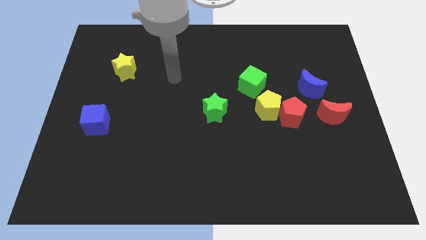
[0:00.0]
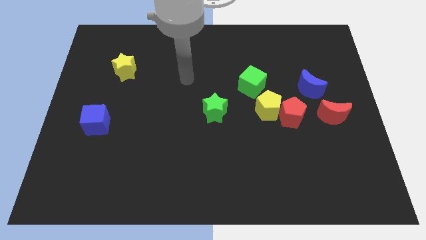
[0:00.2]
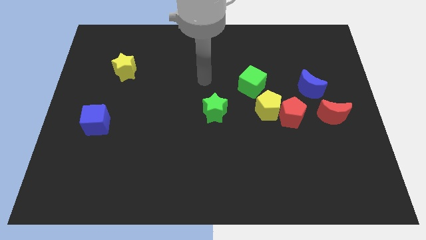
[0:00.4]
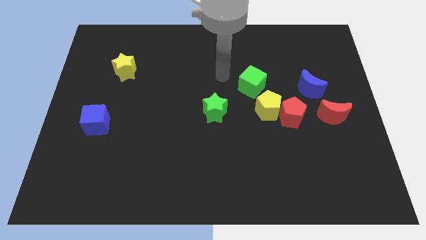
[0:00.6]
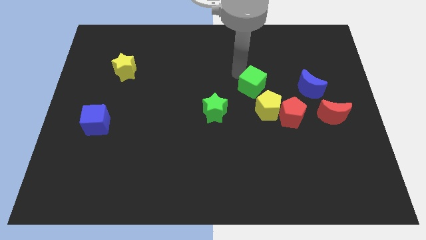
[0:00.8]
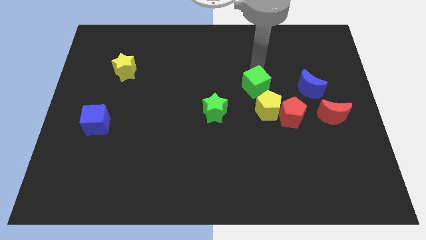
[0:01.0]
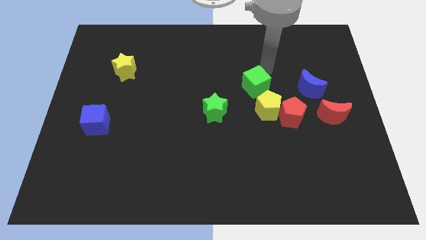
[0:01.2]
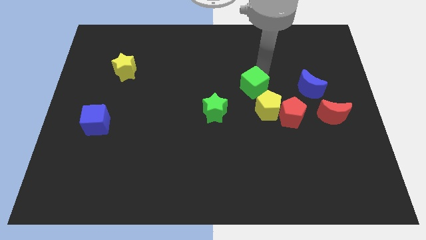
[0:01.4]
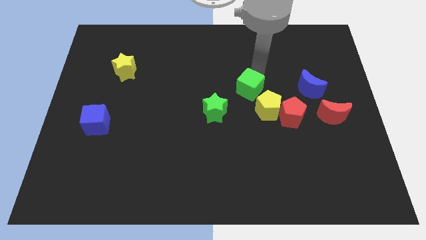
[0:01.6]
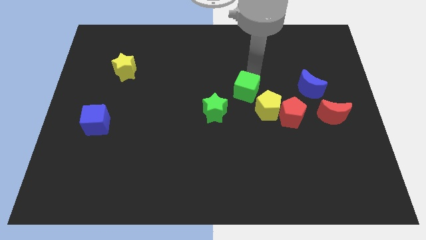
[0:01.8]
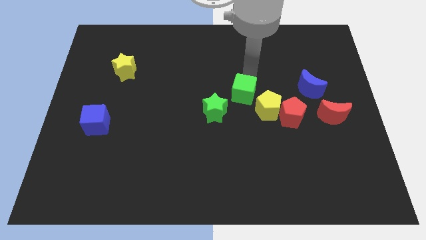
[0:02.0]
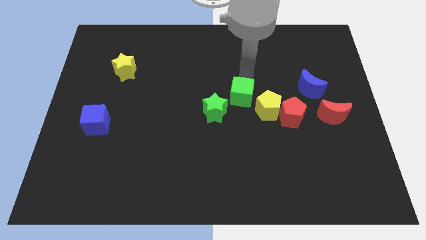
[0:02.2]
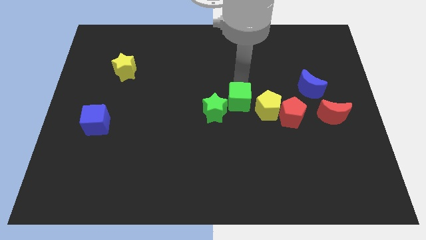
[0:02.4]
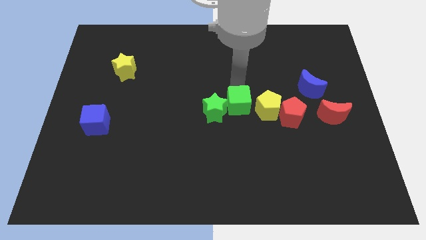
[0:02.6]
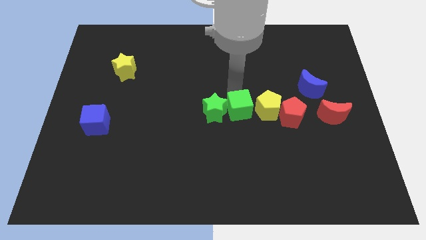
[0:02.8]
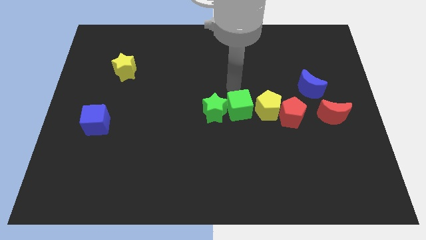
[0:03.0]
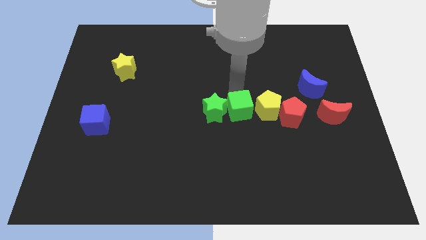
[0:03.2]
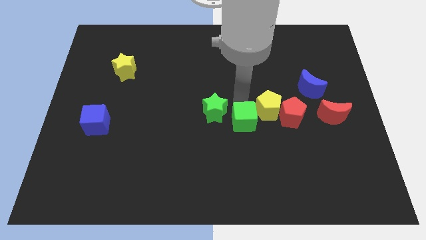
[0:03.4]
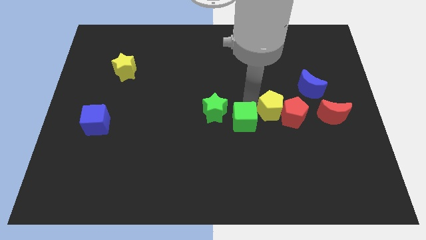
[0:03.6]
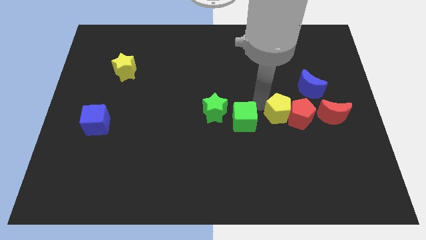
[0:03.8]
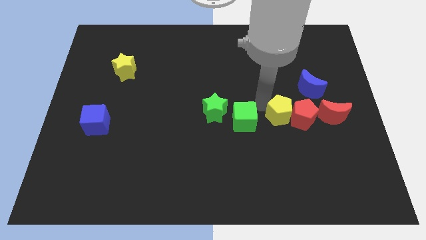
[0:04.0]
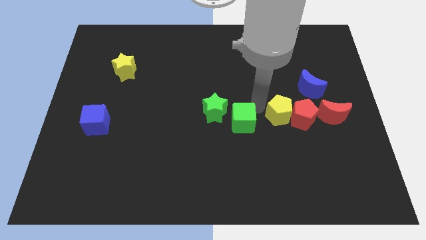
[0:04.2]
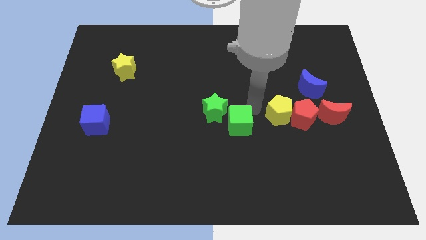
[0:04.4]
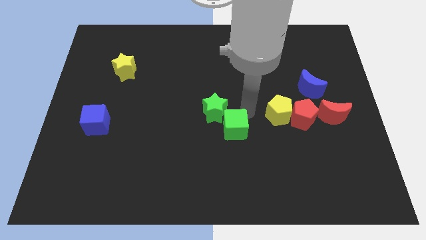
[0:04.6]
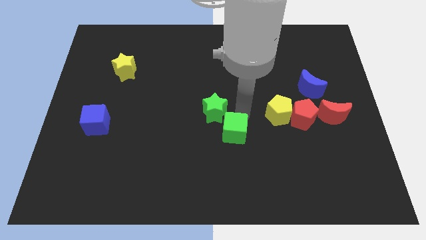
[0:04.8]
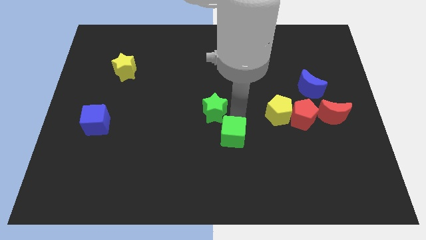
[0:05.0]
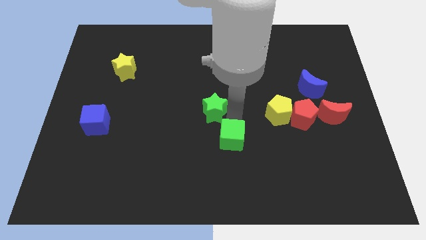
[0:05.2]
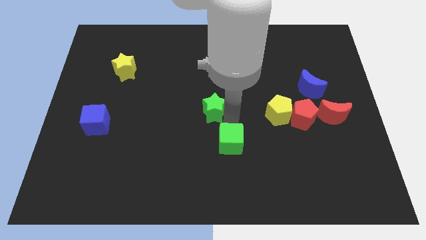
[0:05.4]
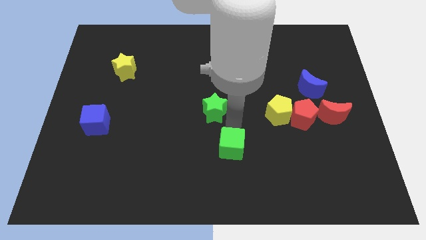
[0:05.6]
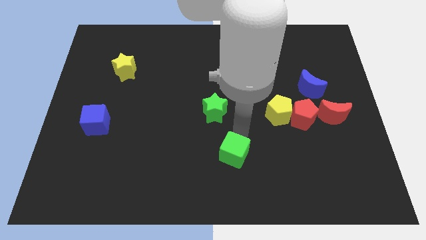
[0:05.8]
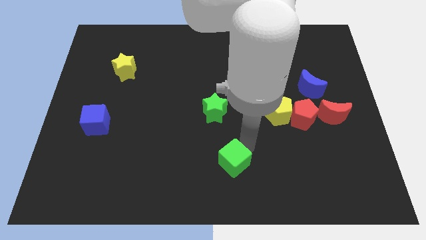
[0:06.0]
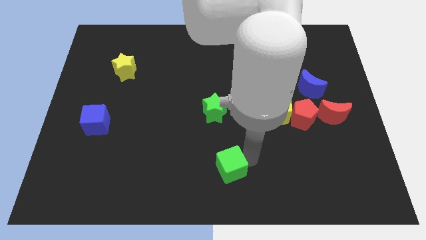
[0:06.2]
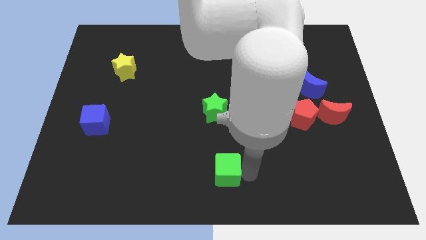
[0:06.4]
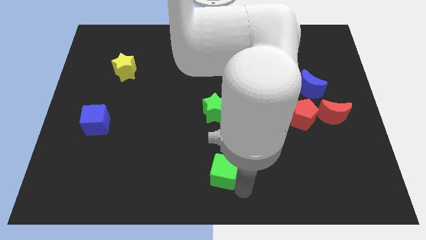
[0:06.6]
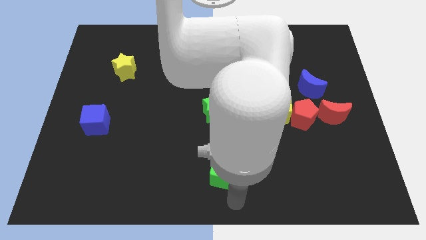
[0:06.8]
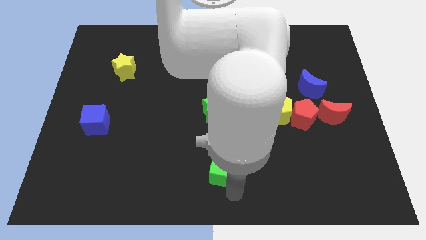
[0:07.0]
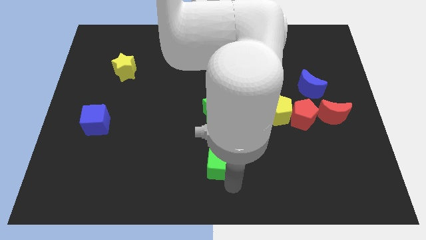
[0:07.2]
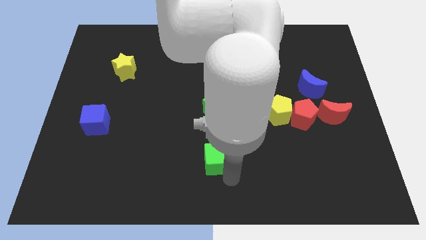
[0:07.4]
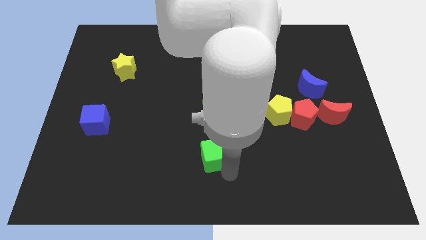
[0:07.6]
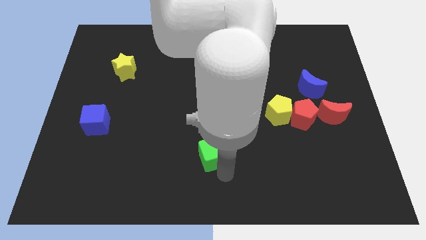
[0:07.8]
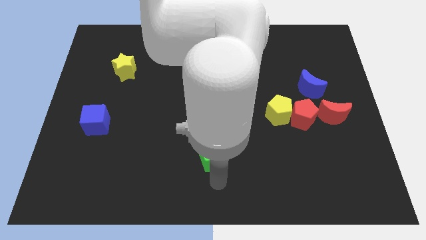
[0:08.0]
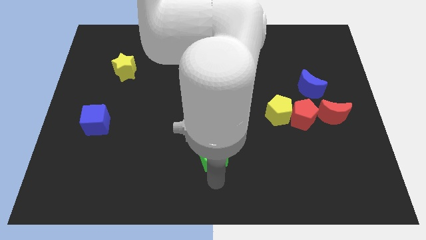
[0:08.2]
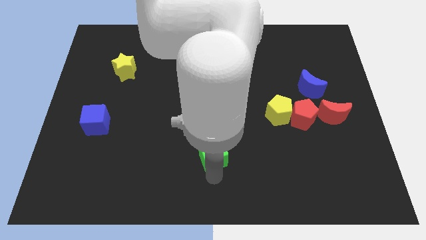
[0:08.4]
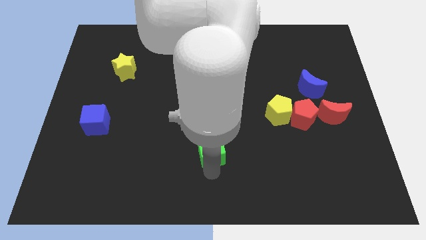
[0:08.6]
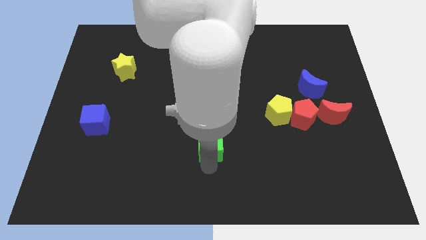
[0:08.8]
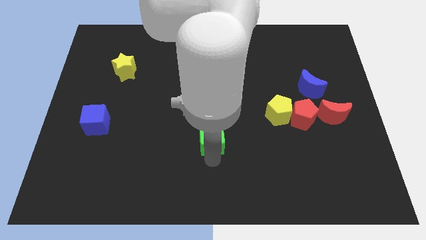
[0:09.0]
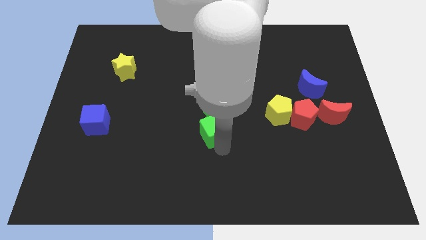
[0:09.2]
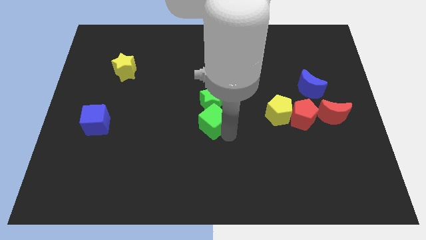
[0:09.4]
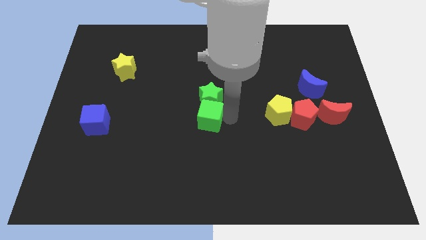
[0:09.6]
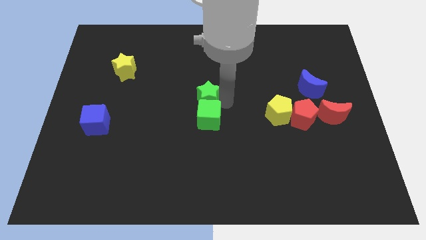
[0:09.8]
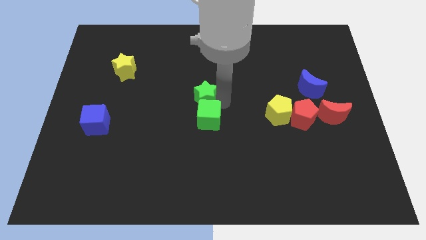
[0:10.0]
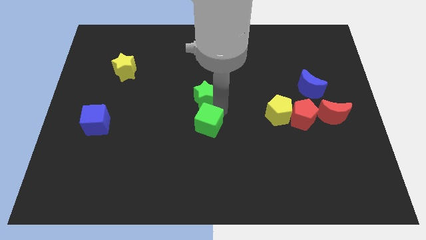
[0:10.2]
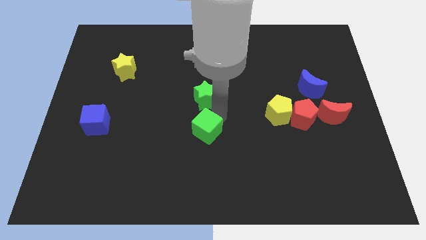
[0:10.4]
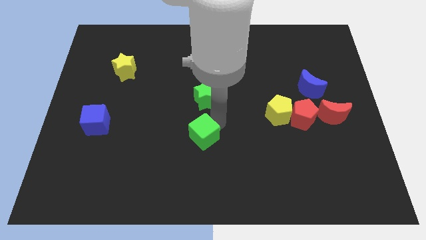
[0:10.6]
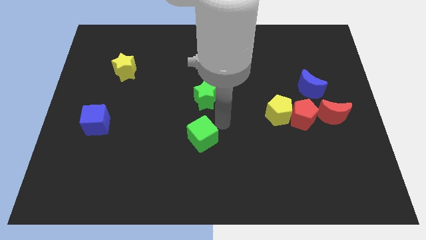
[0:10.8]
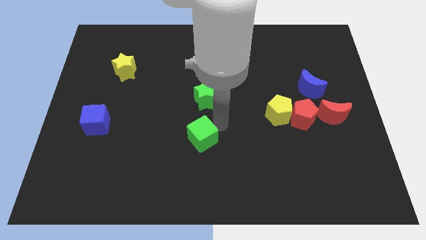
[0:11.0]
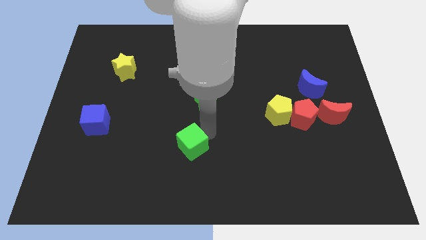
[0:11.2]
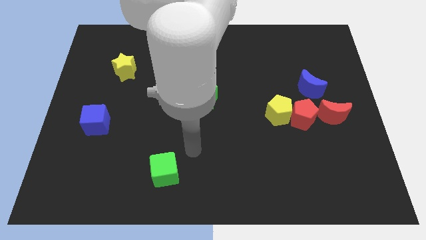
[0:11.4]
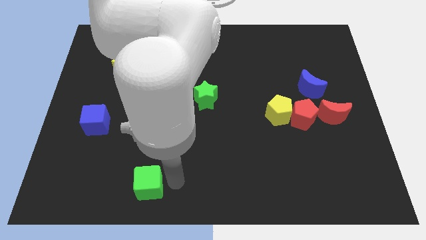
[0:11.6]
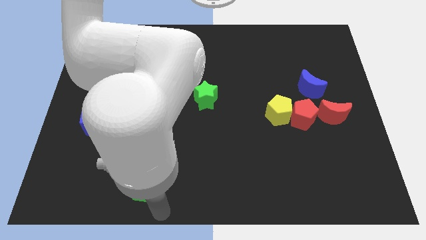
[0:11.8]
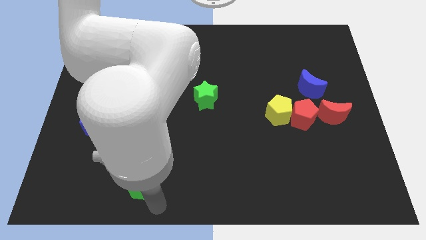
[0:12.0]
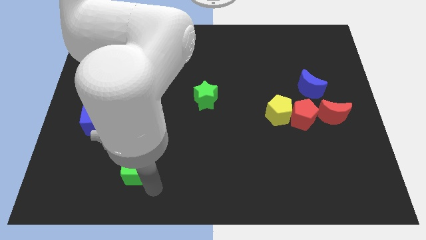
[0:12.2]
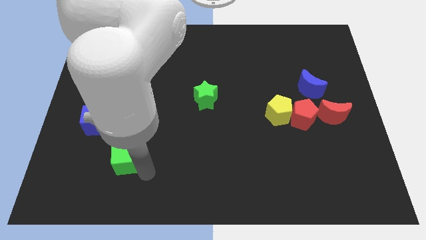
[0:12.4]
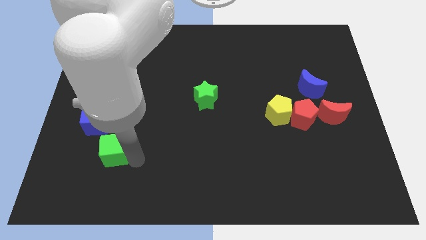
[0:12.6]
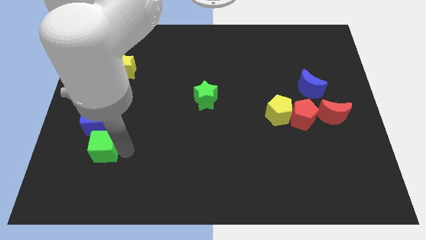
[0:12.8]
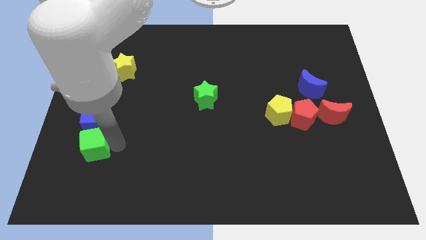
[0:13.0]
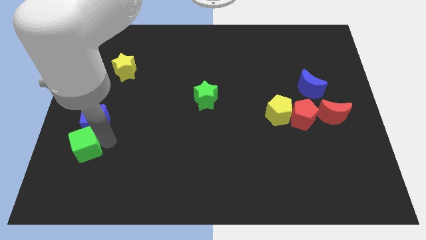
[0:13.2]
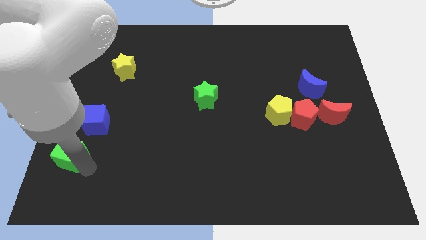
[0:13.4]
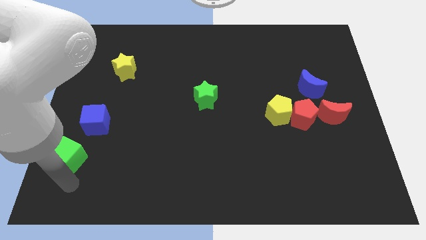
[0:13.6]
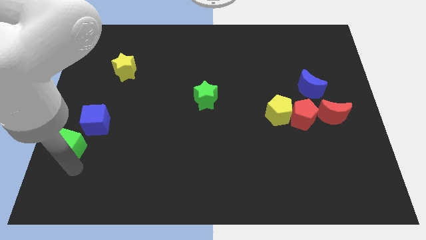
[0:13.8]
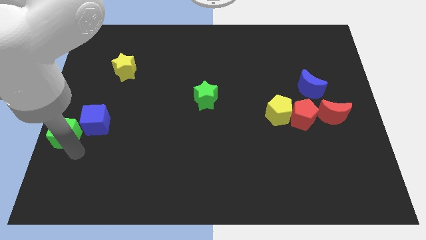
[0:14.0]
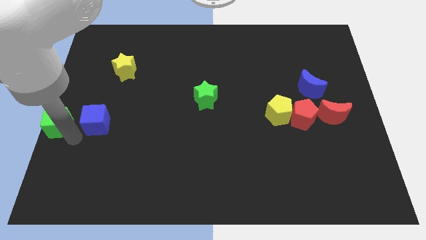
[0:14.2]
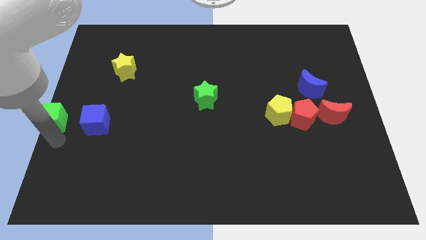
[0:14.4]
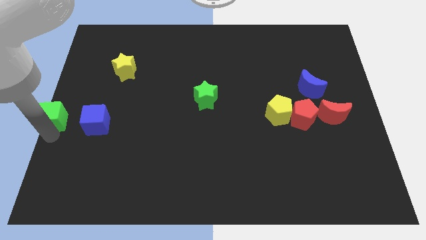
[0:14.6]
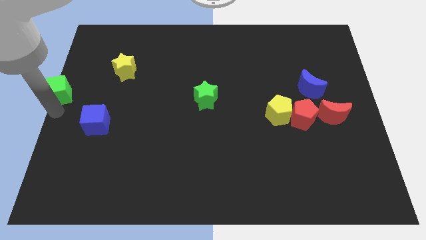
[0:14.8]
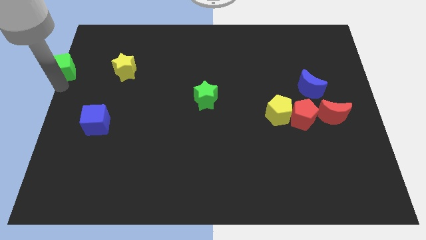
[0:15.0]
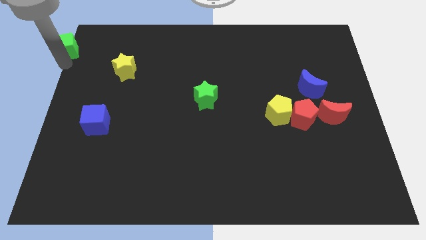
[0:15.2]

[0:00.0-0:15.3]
slide the green cube to the top left
